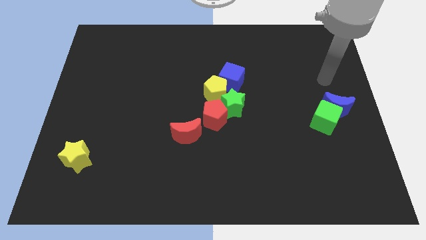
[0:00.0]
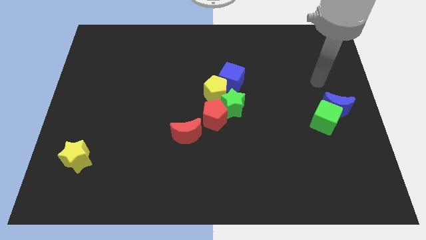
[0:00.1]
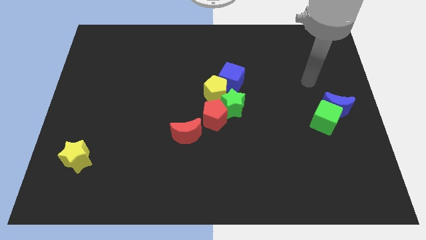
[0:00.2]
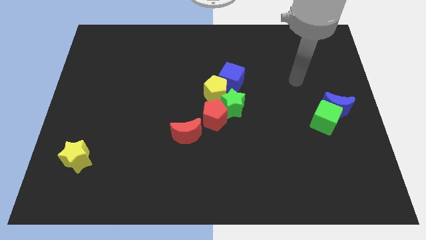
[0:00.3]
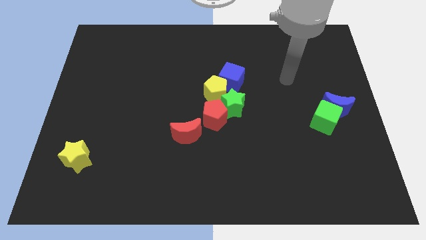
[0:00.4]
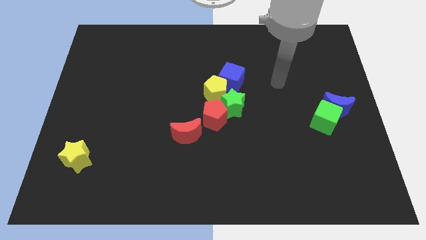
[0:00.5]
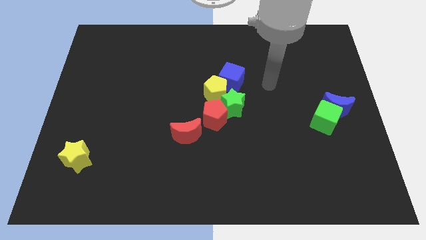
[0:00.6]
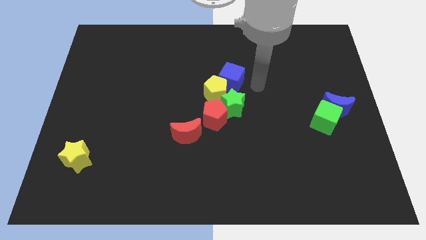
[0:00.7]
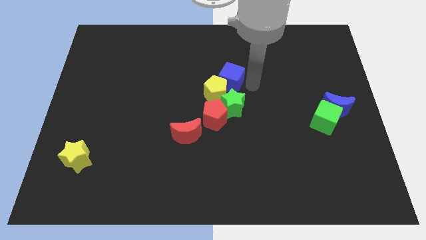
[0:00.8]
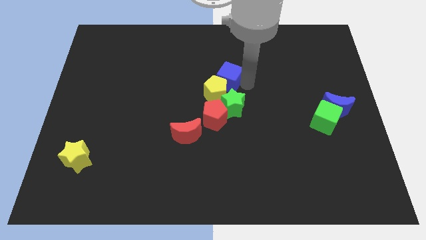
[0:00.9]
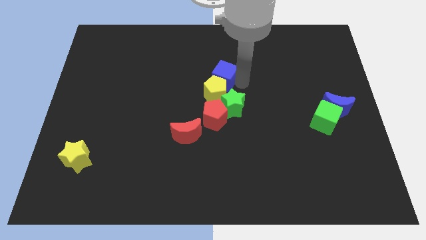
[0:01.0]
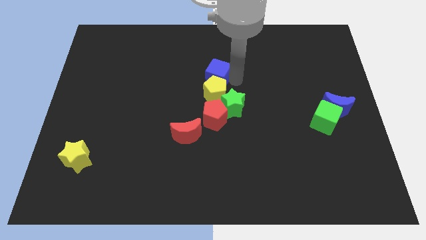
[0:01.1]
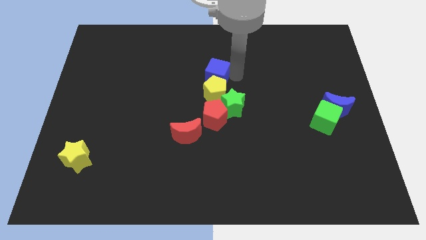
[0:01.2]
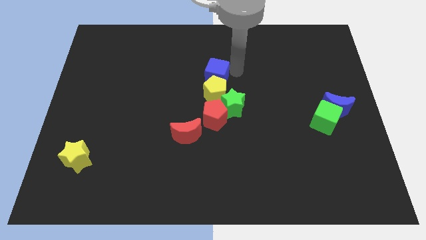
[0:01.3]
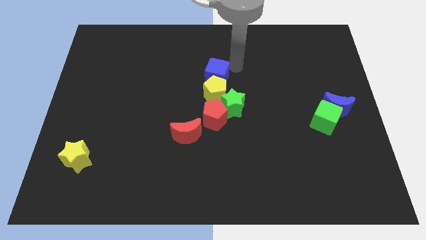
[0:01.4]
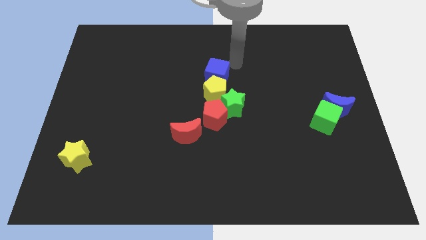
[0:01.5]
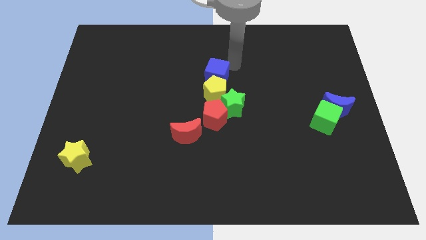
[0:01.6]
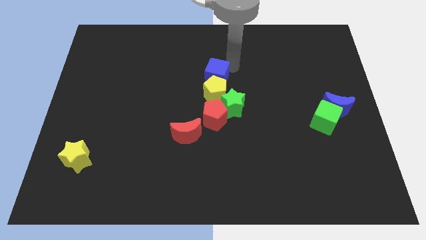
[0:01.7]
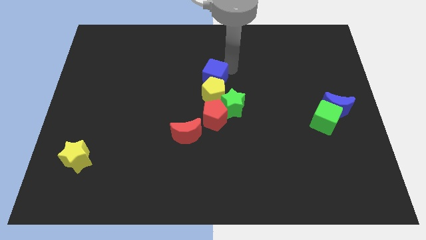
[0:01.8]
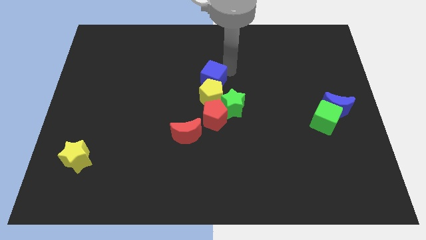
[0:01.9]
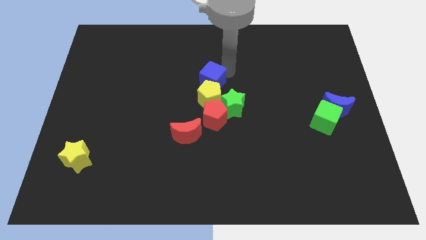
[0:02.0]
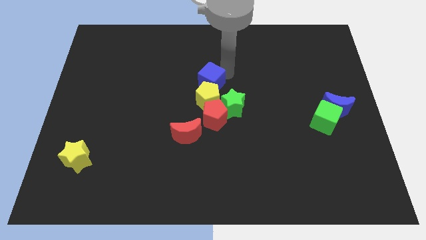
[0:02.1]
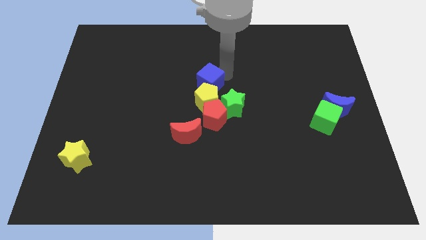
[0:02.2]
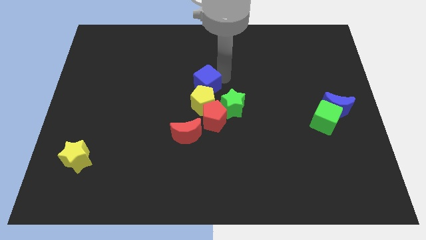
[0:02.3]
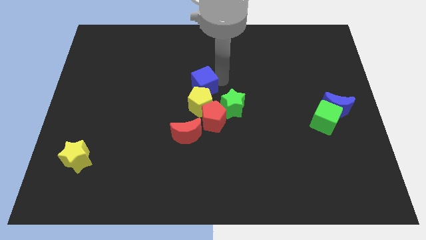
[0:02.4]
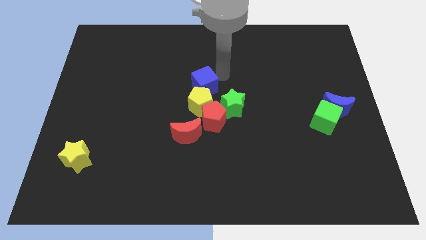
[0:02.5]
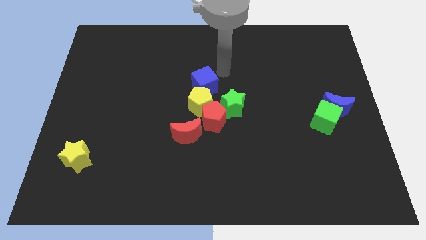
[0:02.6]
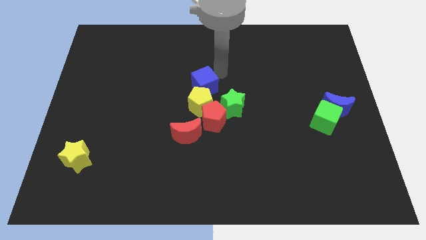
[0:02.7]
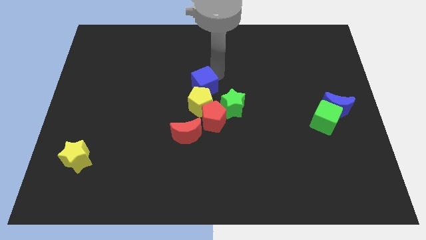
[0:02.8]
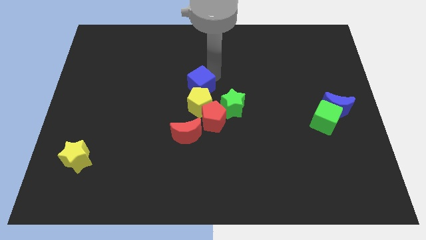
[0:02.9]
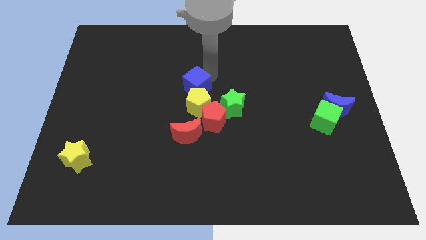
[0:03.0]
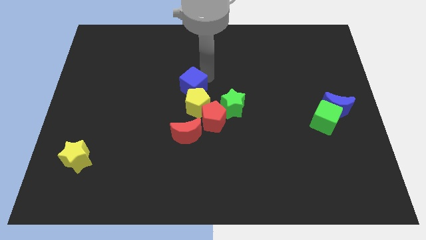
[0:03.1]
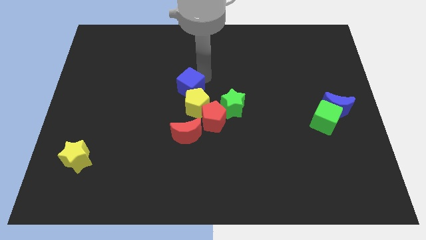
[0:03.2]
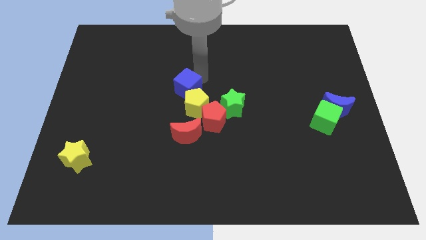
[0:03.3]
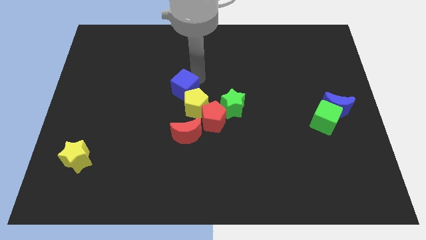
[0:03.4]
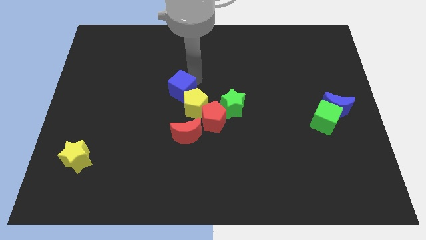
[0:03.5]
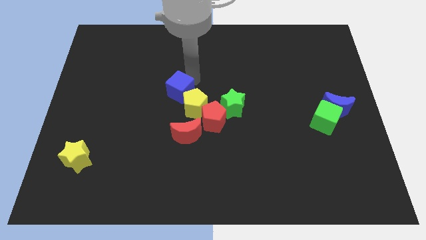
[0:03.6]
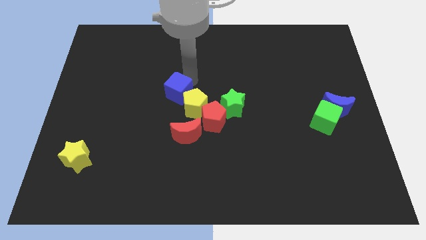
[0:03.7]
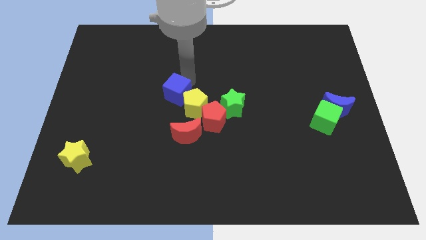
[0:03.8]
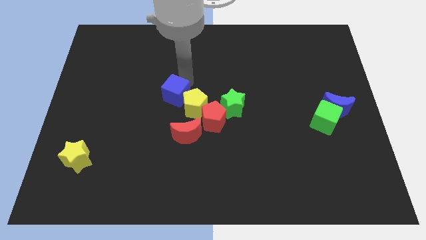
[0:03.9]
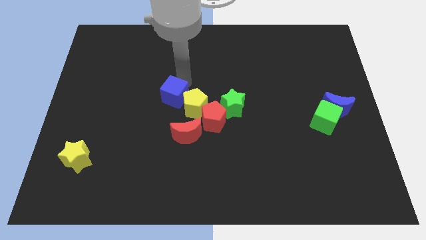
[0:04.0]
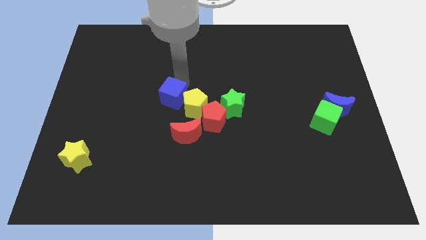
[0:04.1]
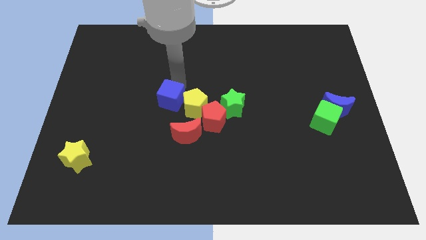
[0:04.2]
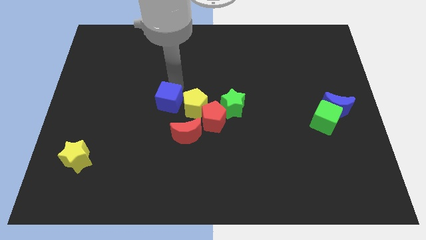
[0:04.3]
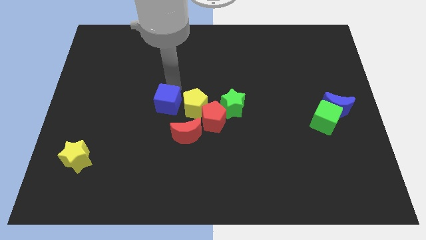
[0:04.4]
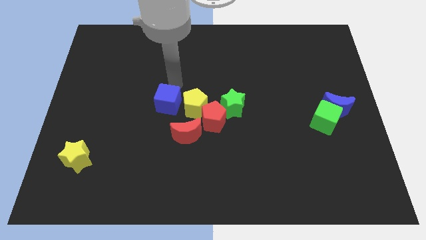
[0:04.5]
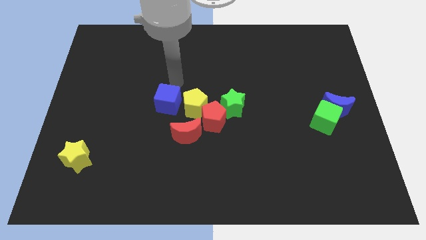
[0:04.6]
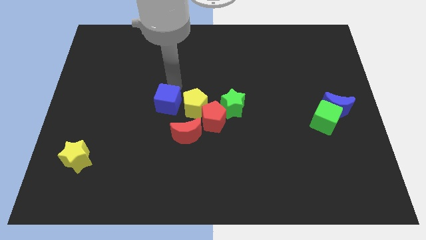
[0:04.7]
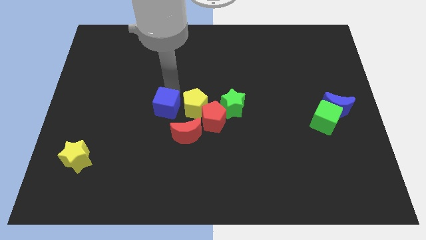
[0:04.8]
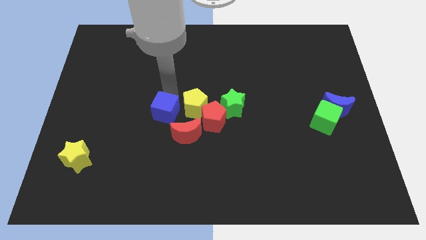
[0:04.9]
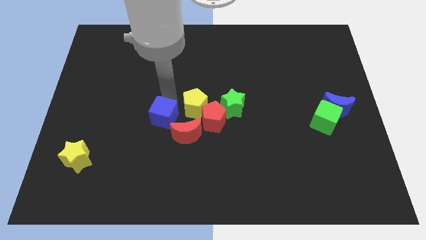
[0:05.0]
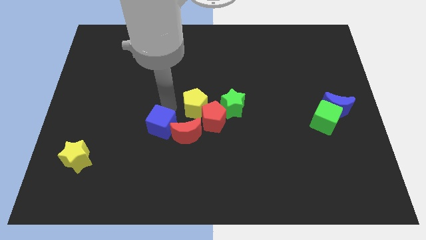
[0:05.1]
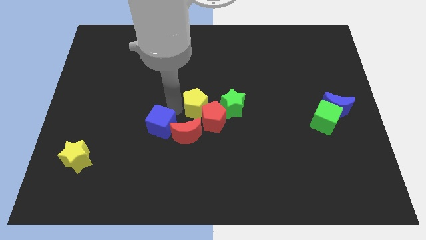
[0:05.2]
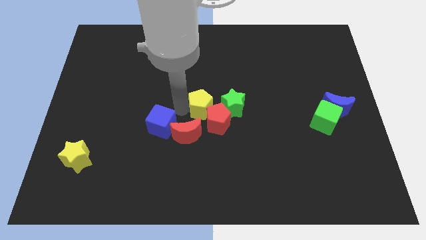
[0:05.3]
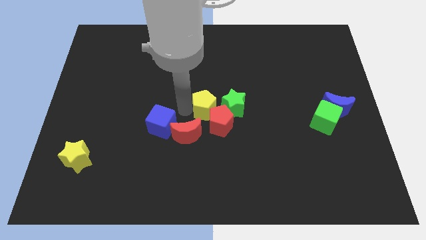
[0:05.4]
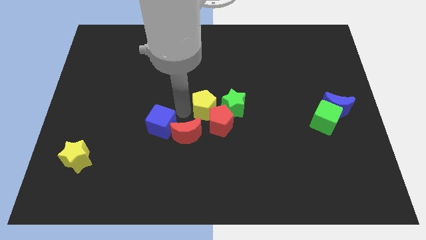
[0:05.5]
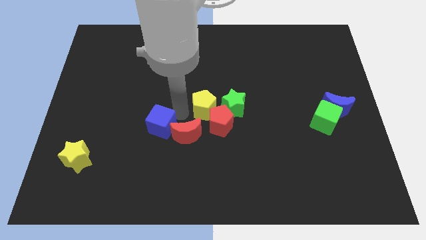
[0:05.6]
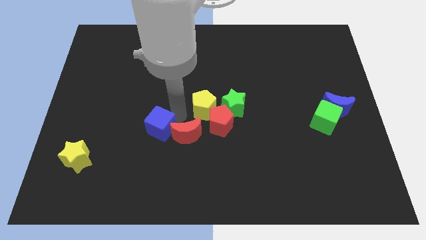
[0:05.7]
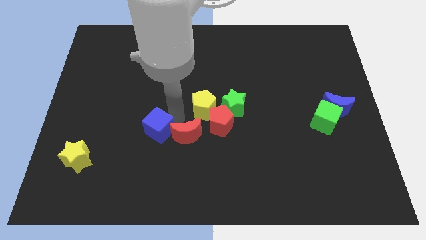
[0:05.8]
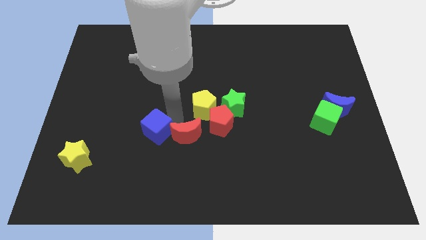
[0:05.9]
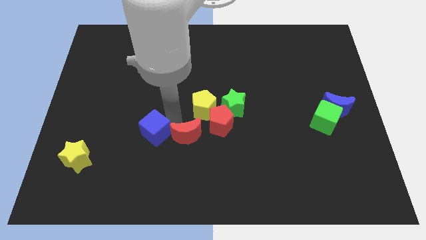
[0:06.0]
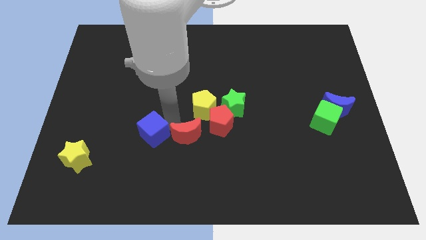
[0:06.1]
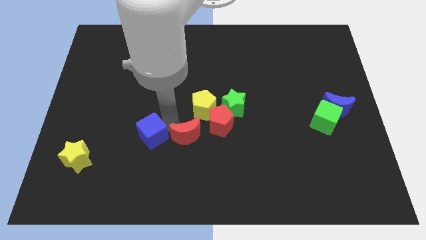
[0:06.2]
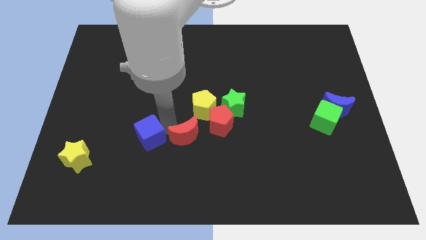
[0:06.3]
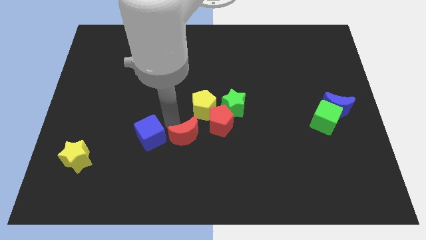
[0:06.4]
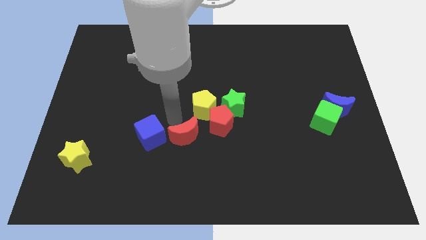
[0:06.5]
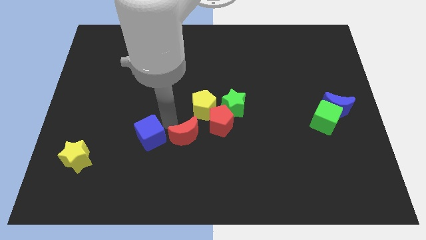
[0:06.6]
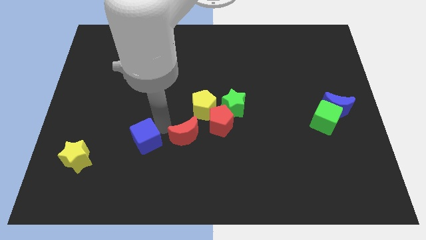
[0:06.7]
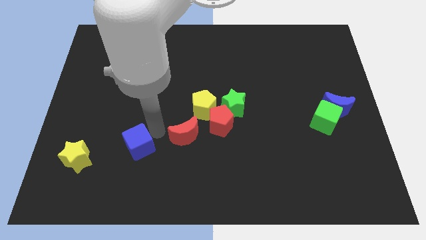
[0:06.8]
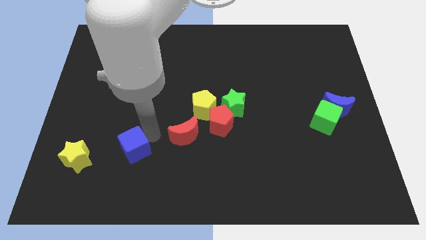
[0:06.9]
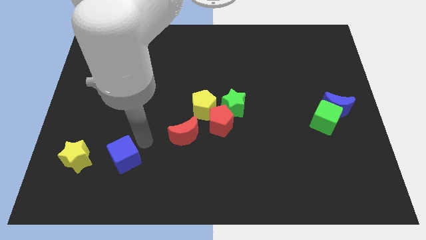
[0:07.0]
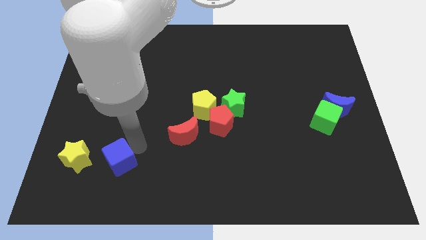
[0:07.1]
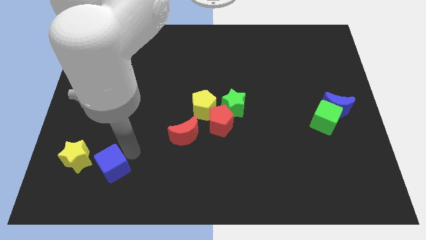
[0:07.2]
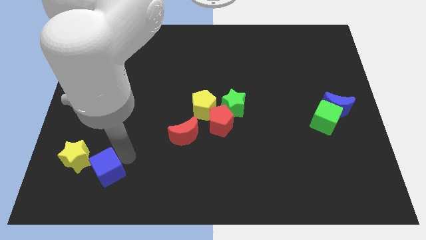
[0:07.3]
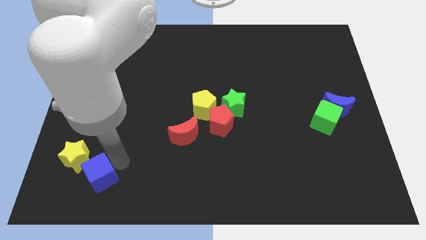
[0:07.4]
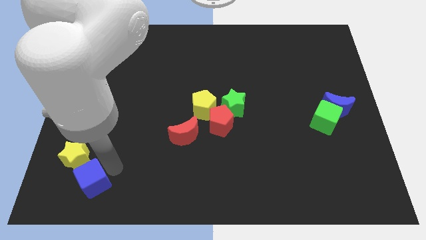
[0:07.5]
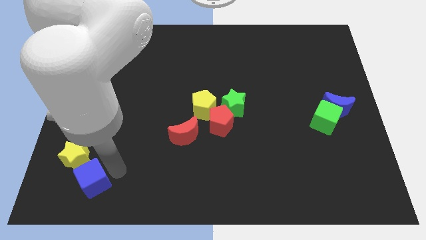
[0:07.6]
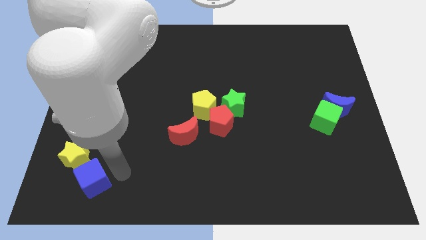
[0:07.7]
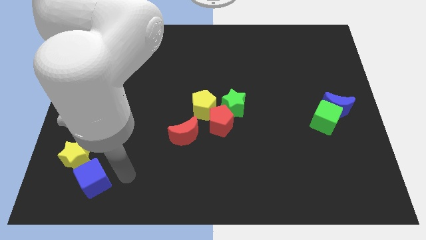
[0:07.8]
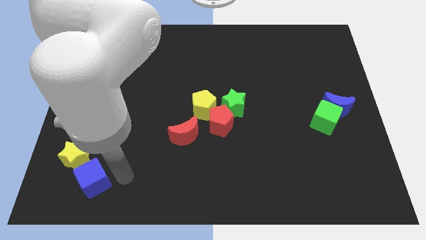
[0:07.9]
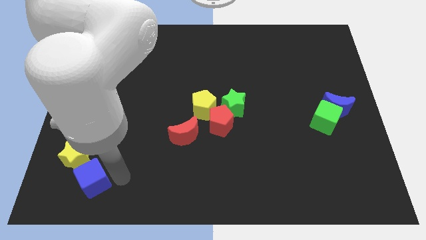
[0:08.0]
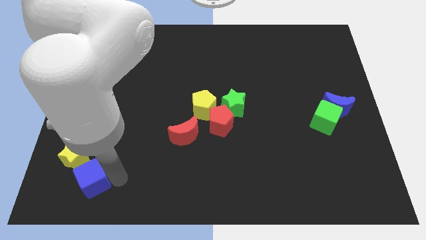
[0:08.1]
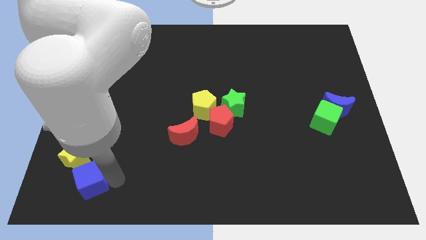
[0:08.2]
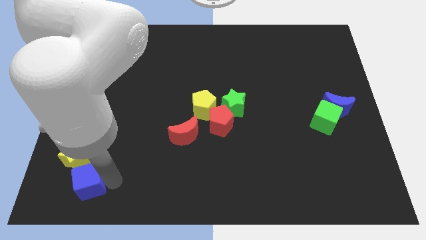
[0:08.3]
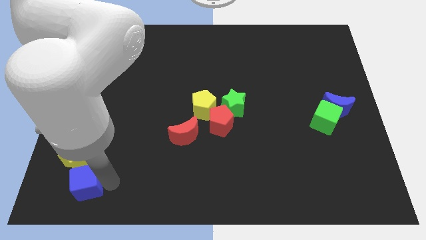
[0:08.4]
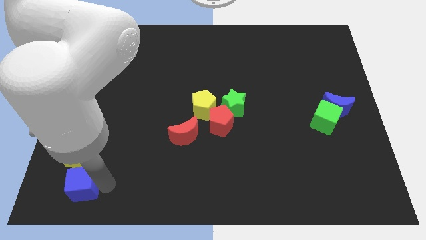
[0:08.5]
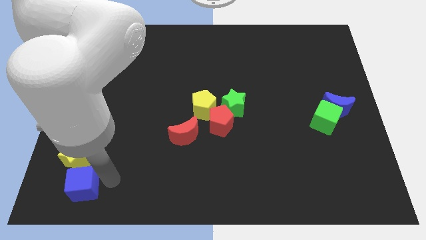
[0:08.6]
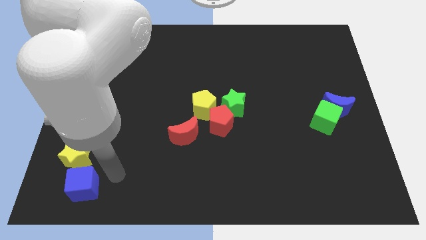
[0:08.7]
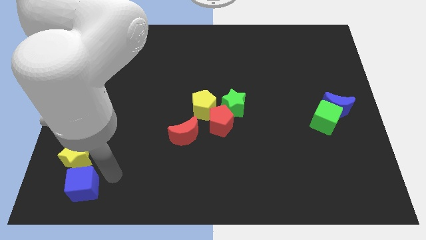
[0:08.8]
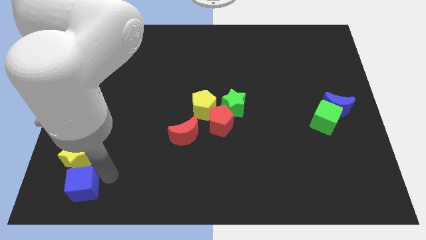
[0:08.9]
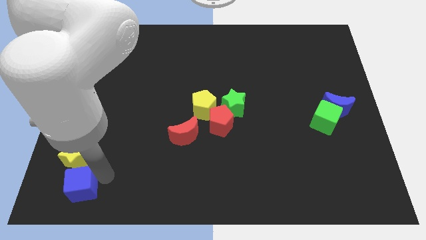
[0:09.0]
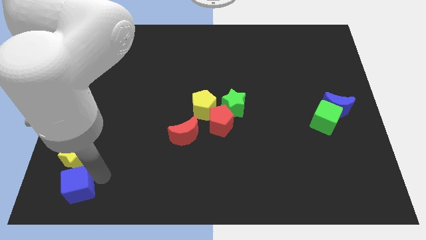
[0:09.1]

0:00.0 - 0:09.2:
put the blue cube to the lower left corner
